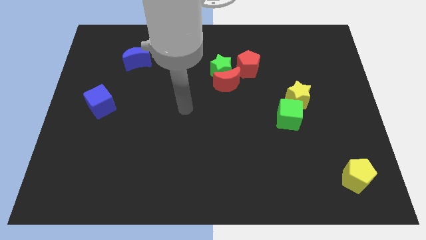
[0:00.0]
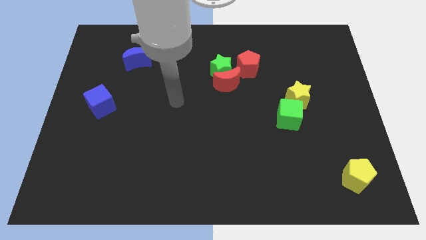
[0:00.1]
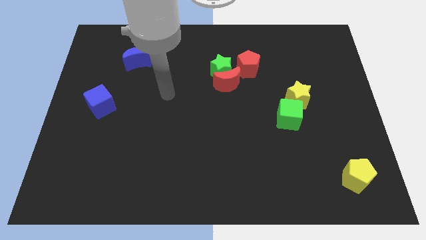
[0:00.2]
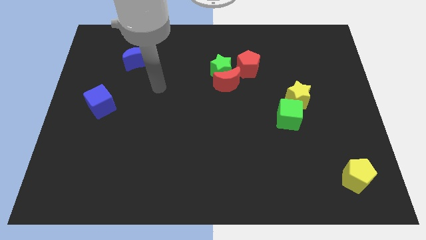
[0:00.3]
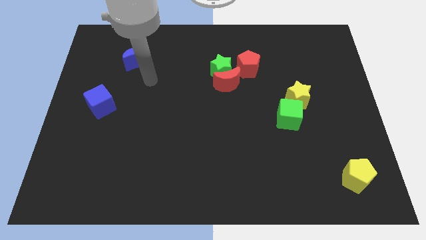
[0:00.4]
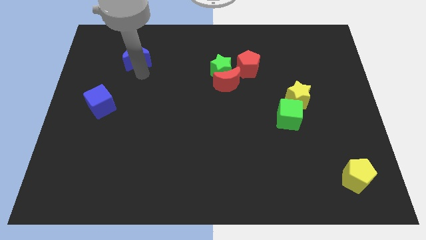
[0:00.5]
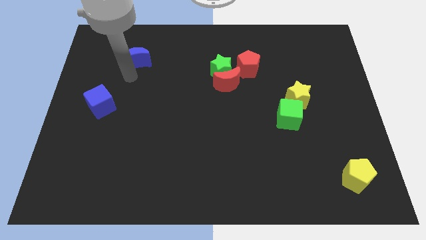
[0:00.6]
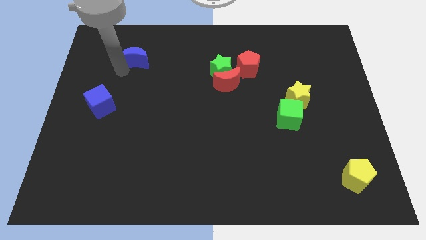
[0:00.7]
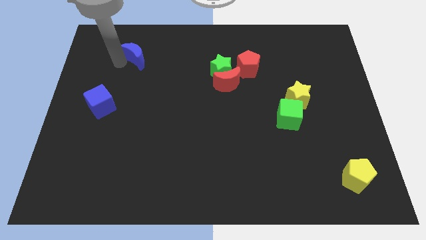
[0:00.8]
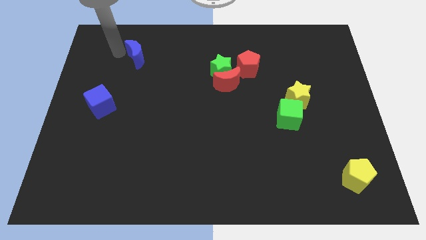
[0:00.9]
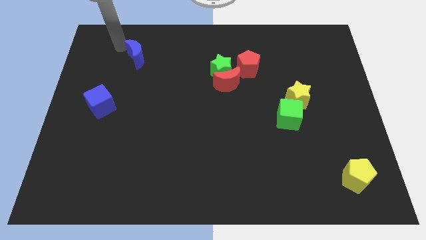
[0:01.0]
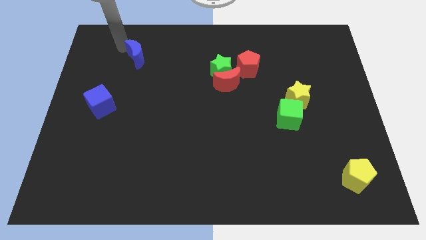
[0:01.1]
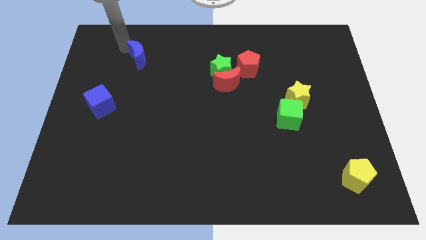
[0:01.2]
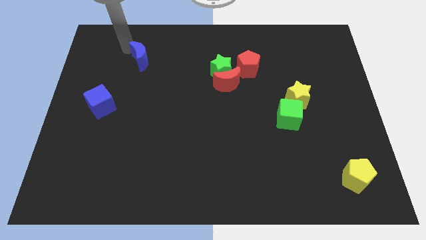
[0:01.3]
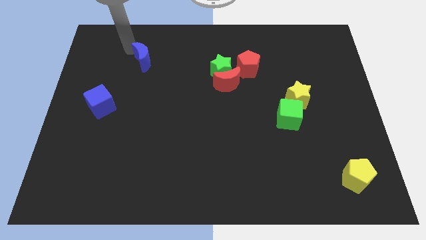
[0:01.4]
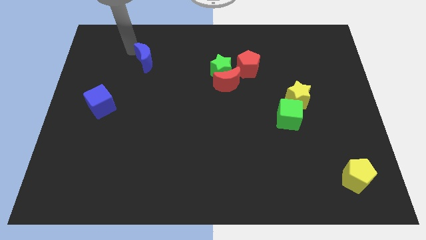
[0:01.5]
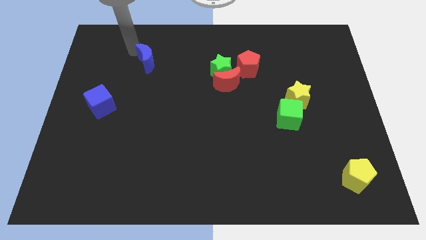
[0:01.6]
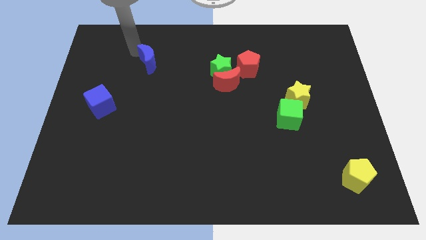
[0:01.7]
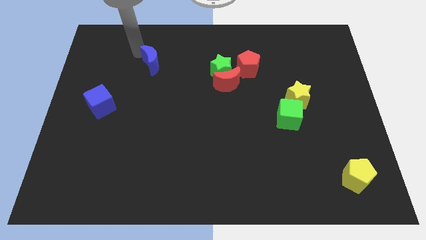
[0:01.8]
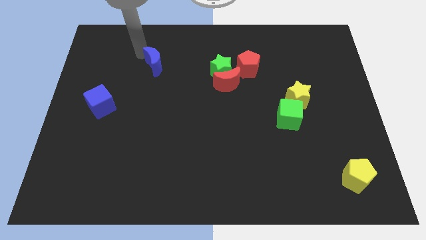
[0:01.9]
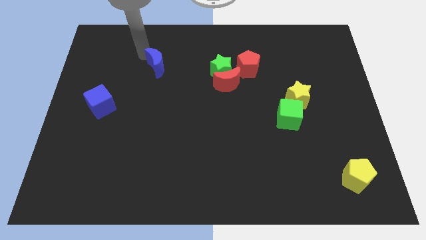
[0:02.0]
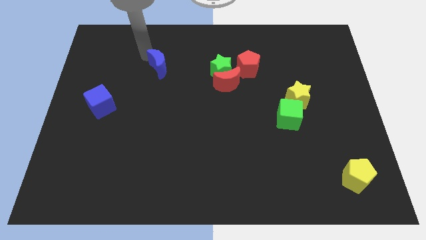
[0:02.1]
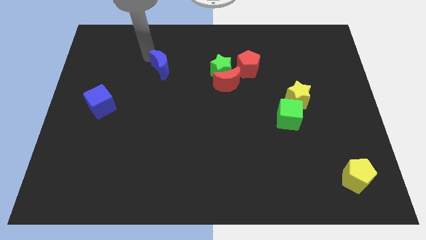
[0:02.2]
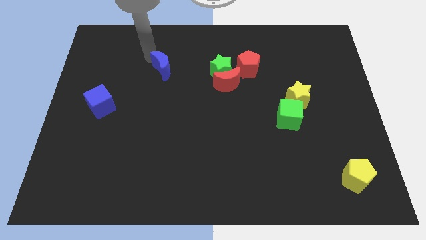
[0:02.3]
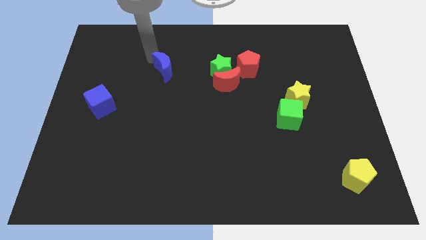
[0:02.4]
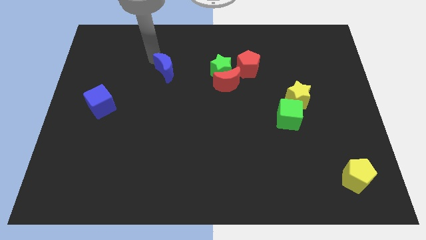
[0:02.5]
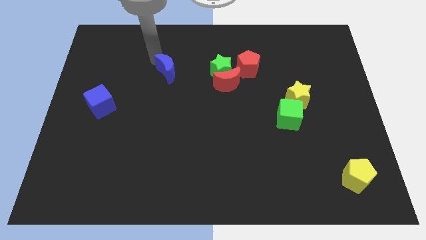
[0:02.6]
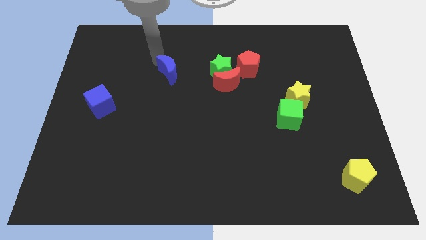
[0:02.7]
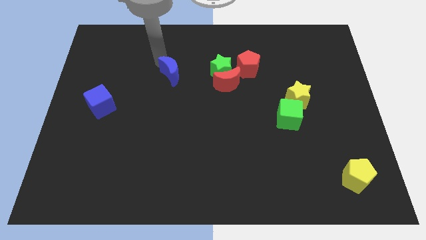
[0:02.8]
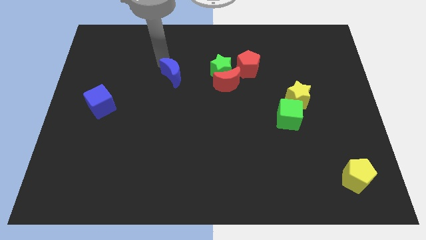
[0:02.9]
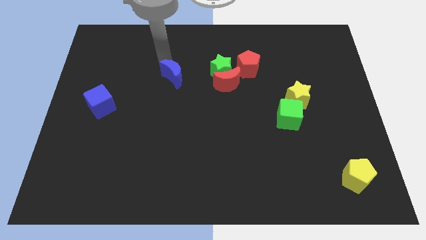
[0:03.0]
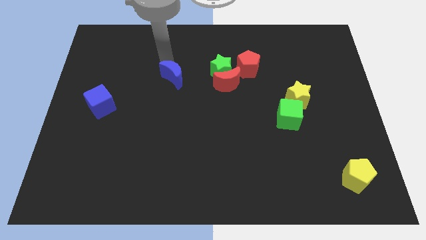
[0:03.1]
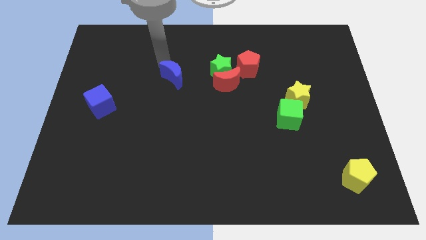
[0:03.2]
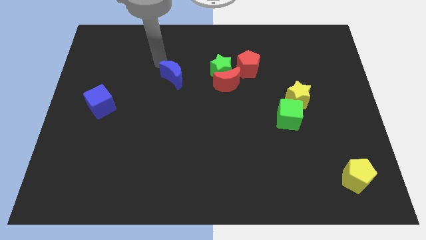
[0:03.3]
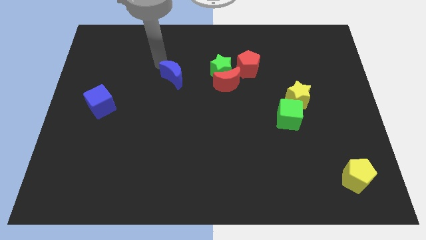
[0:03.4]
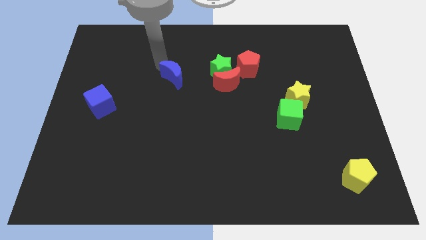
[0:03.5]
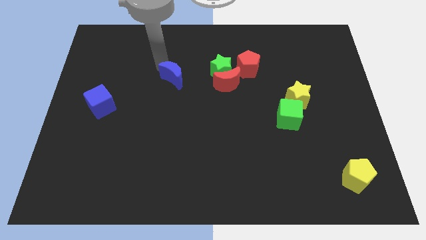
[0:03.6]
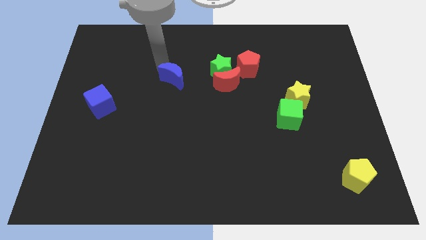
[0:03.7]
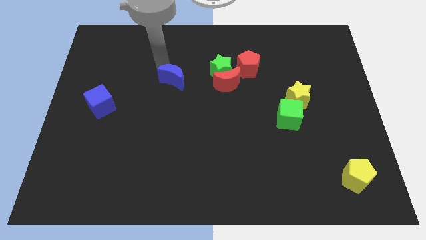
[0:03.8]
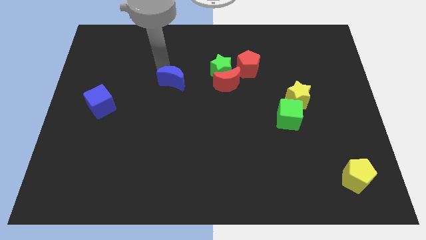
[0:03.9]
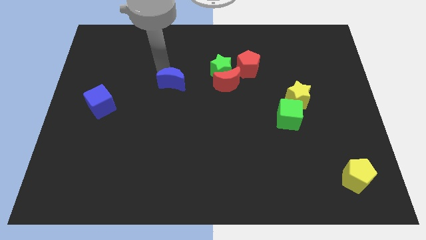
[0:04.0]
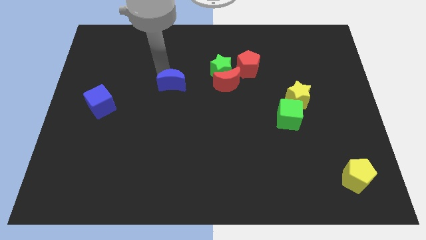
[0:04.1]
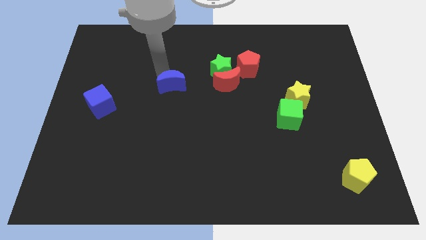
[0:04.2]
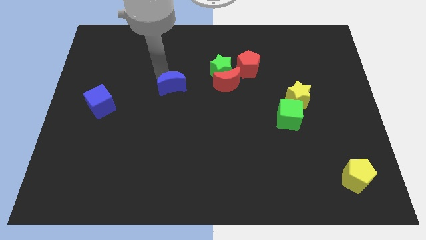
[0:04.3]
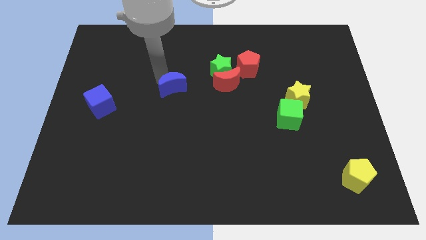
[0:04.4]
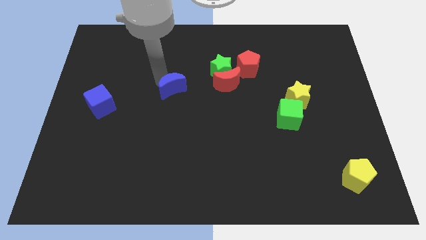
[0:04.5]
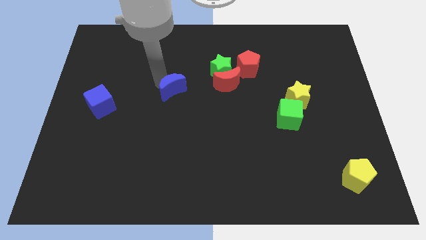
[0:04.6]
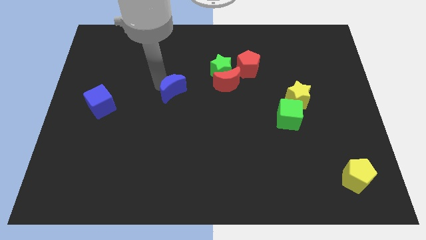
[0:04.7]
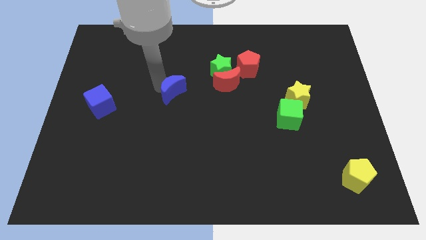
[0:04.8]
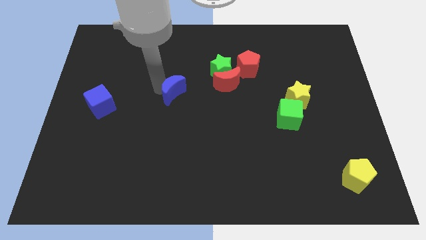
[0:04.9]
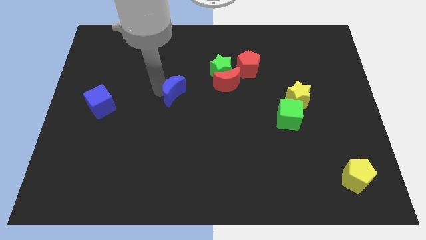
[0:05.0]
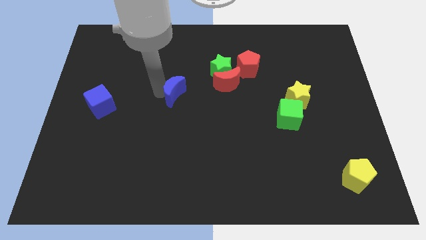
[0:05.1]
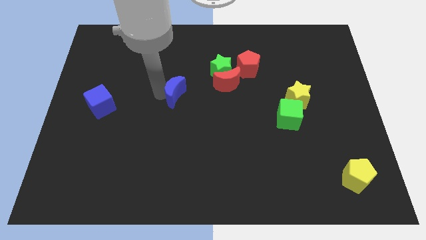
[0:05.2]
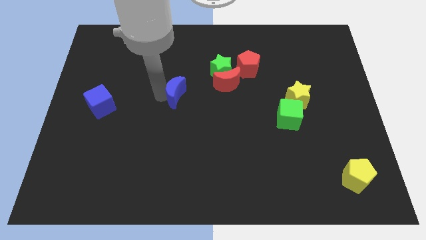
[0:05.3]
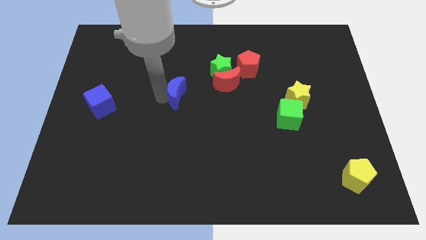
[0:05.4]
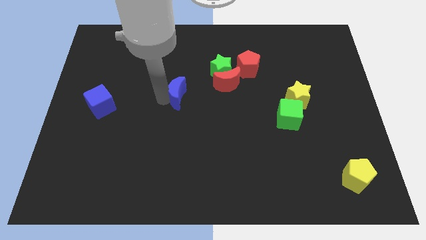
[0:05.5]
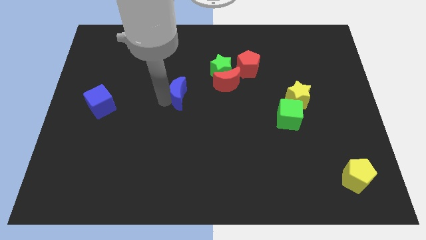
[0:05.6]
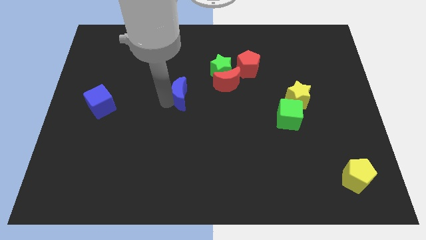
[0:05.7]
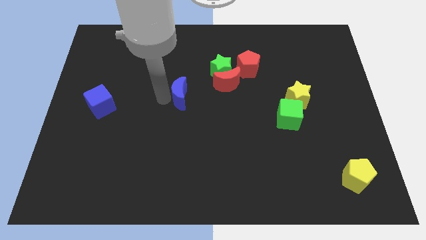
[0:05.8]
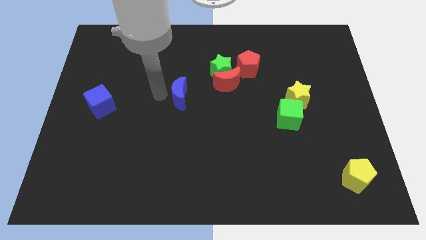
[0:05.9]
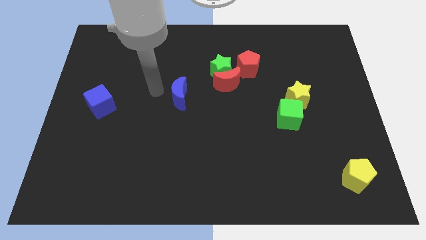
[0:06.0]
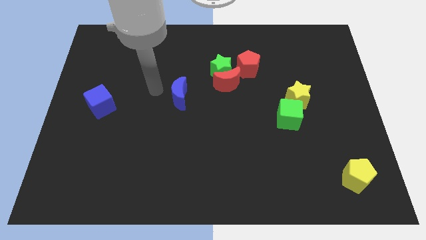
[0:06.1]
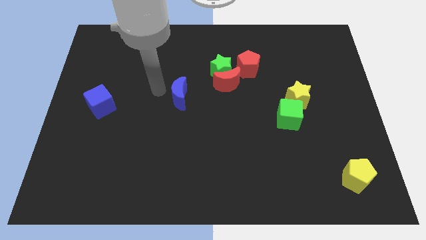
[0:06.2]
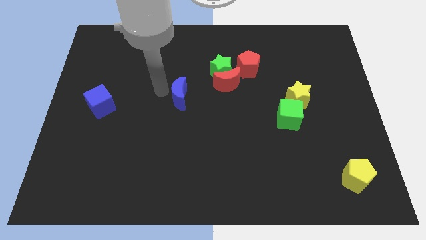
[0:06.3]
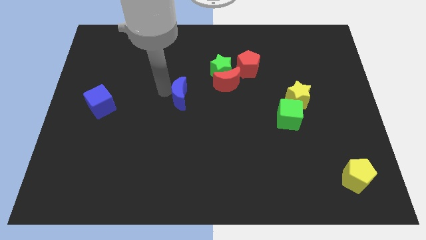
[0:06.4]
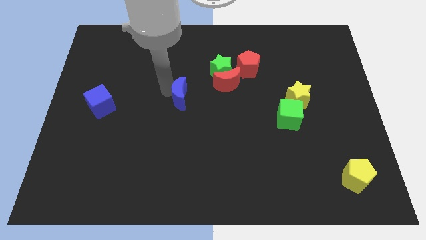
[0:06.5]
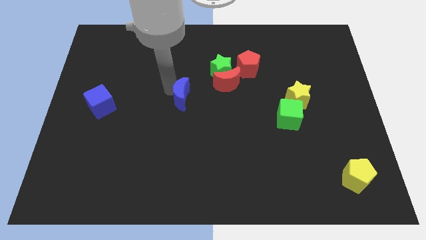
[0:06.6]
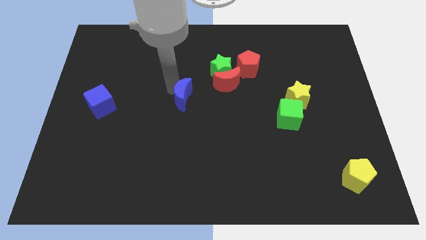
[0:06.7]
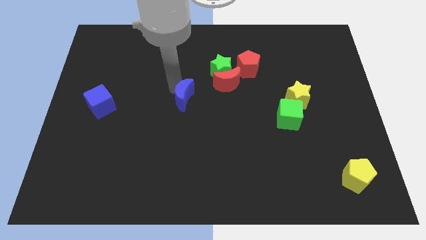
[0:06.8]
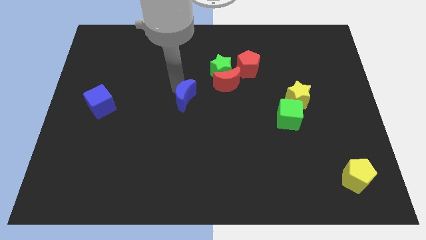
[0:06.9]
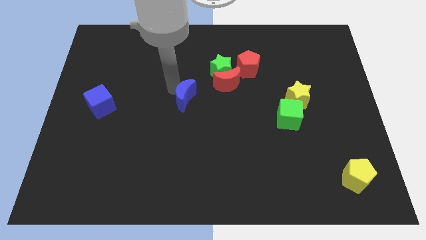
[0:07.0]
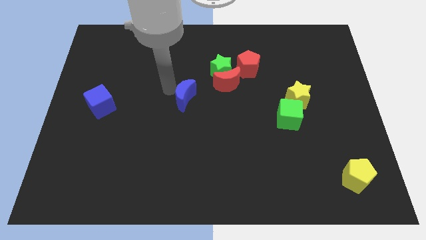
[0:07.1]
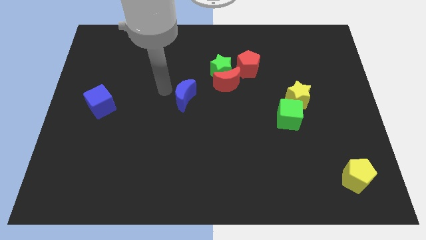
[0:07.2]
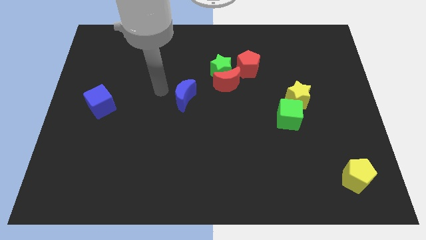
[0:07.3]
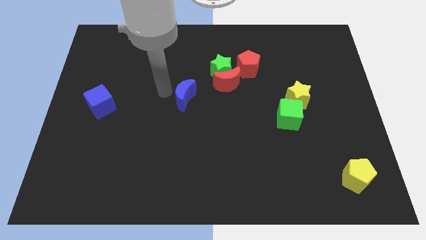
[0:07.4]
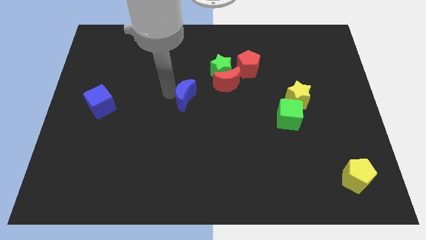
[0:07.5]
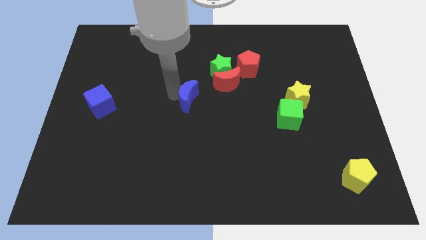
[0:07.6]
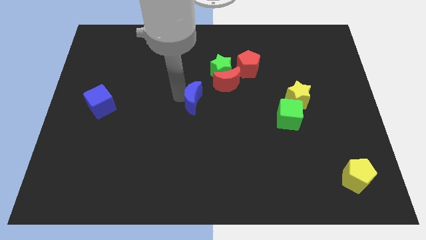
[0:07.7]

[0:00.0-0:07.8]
move the blue moon down and to the right diagonally
